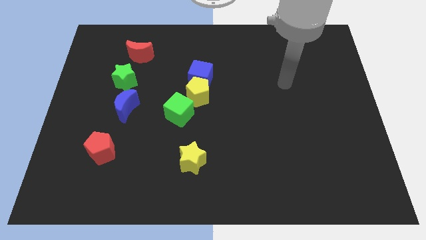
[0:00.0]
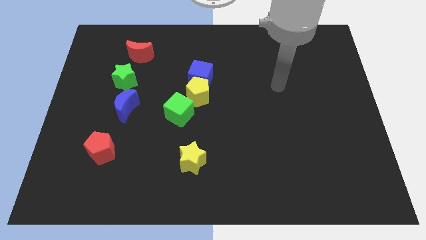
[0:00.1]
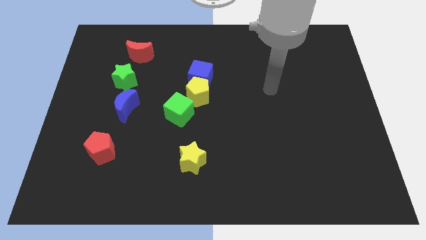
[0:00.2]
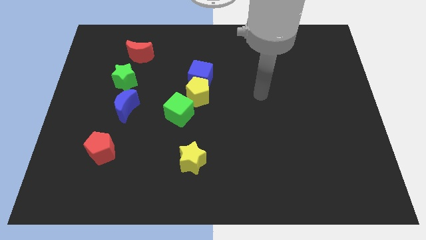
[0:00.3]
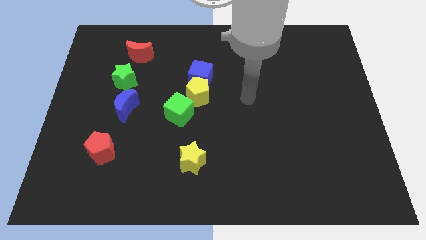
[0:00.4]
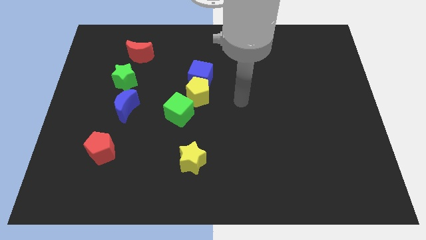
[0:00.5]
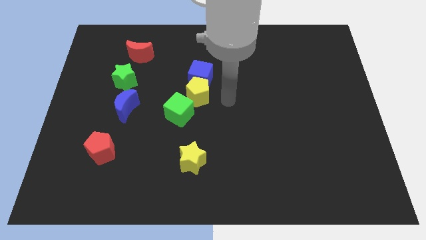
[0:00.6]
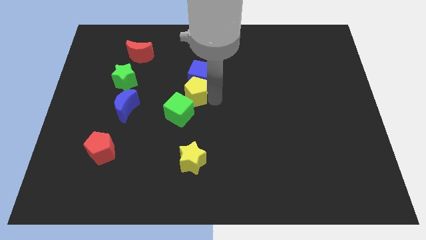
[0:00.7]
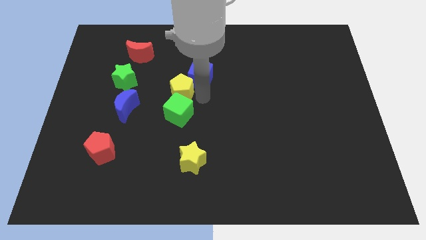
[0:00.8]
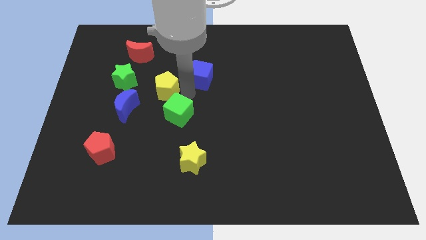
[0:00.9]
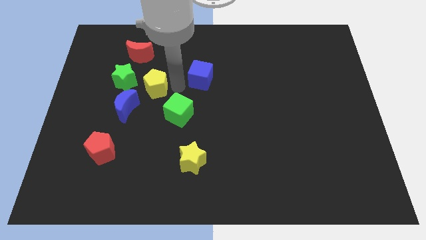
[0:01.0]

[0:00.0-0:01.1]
separate the blue cube from the yellow pentagon

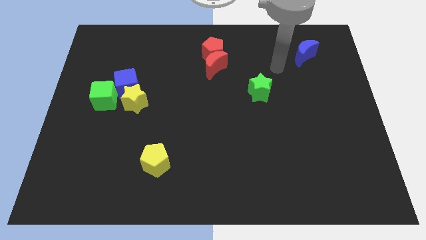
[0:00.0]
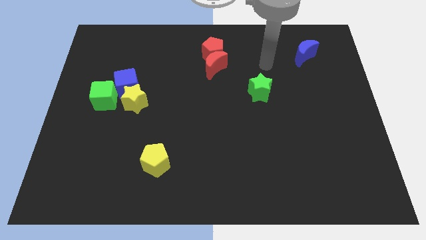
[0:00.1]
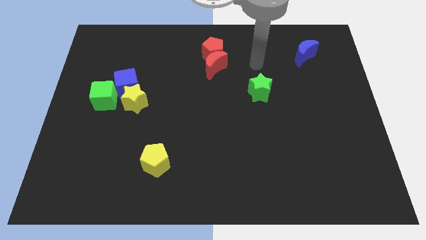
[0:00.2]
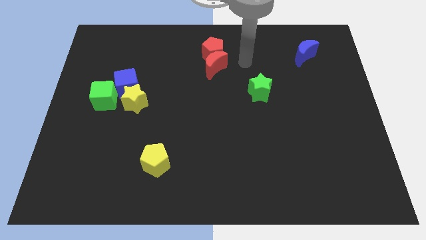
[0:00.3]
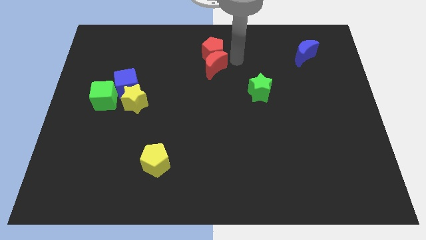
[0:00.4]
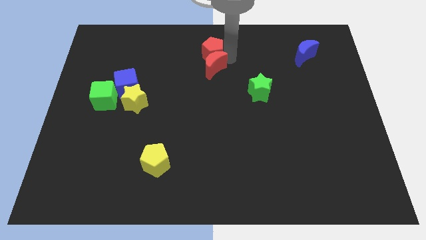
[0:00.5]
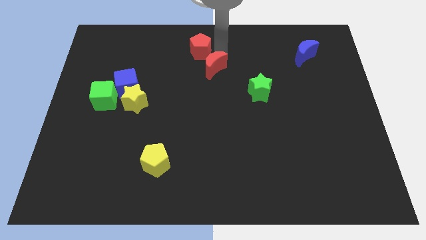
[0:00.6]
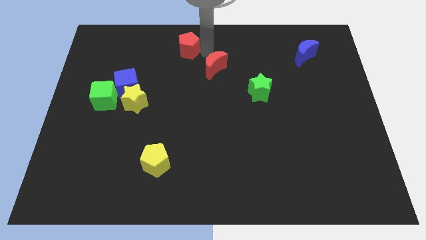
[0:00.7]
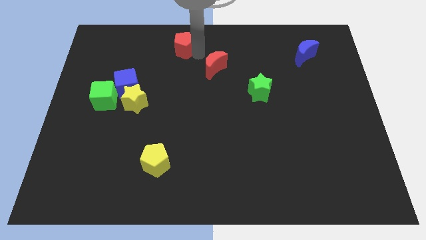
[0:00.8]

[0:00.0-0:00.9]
pull the red moon apart from the red pentagon

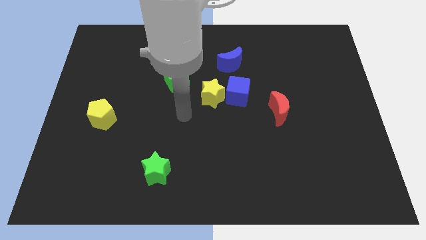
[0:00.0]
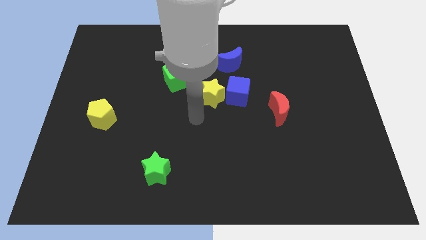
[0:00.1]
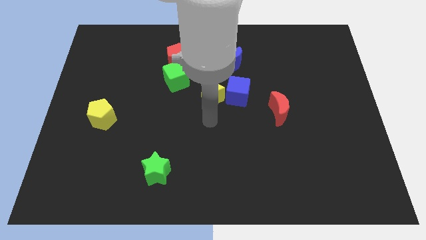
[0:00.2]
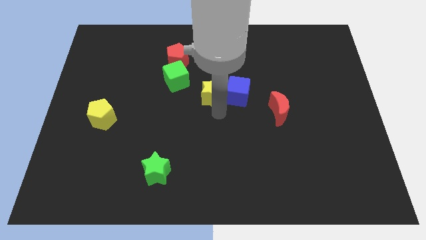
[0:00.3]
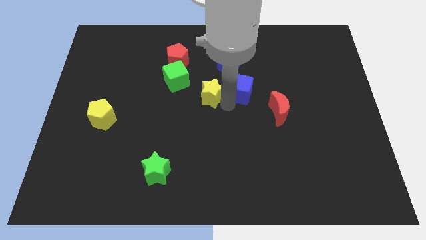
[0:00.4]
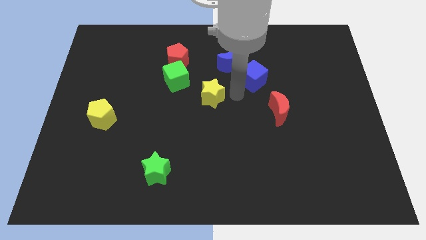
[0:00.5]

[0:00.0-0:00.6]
pull the yellow star apart from the blue cube

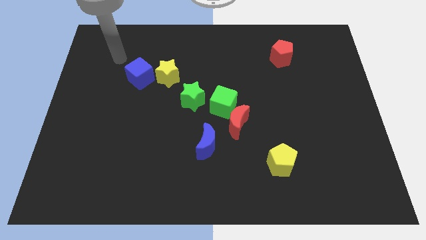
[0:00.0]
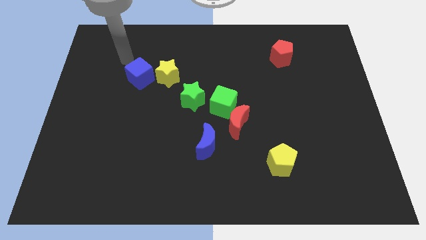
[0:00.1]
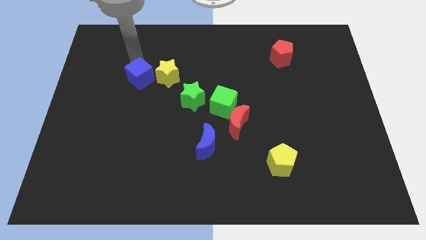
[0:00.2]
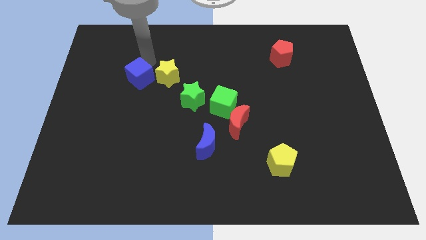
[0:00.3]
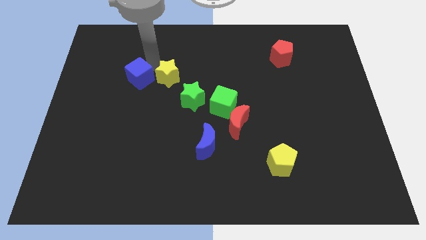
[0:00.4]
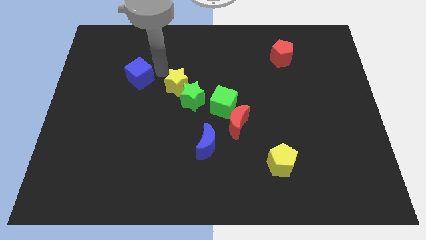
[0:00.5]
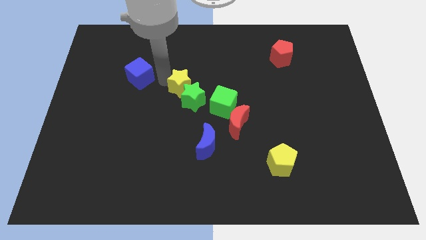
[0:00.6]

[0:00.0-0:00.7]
separate the blue cube from the yellow star

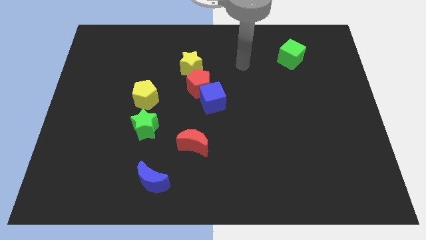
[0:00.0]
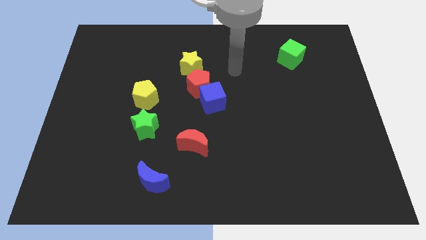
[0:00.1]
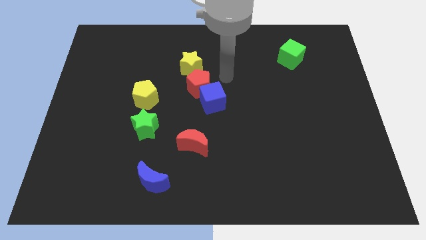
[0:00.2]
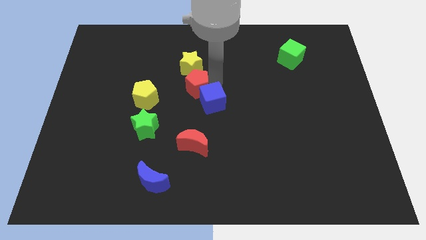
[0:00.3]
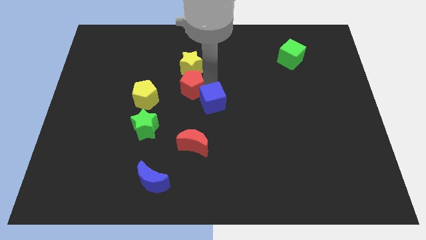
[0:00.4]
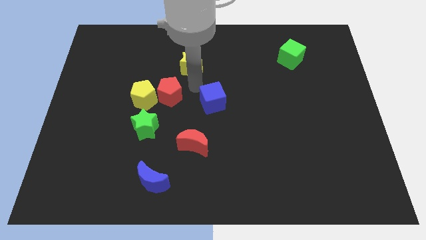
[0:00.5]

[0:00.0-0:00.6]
pull the blue cube apart from the red pentagon

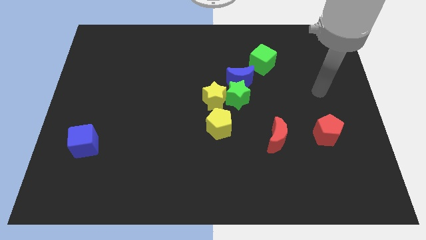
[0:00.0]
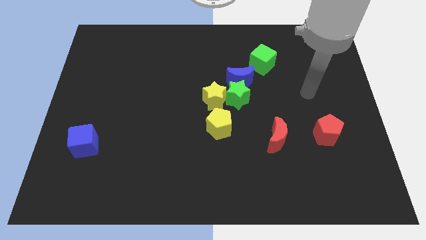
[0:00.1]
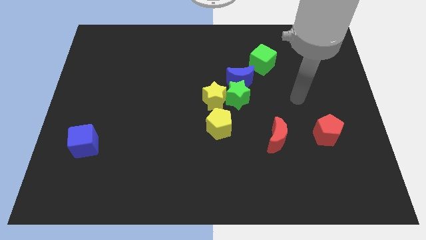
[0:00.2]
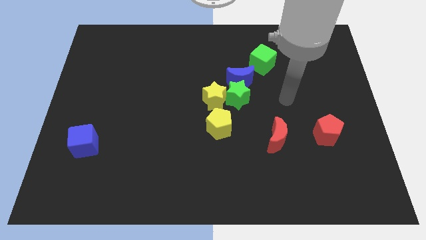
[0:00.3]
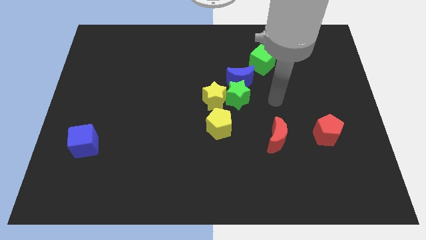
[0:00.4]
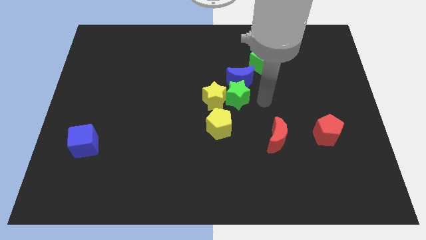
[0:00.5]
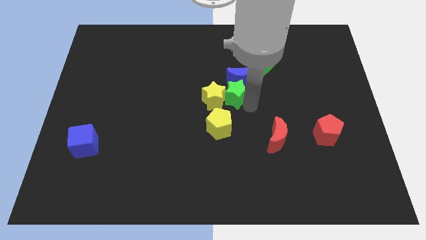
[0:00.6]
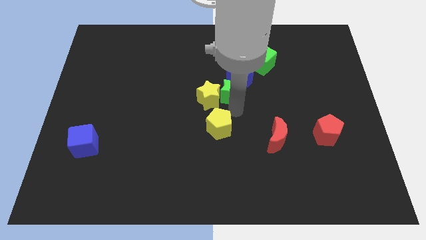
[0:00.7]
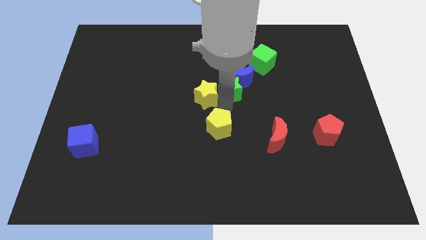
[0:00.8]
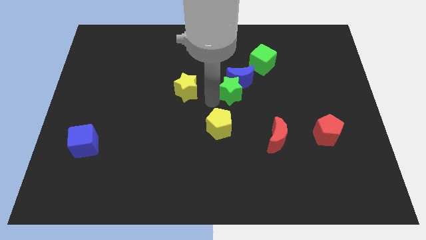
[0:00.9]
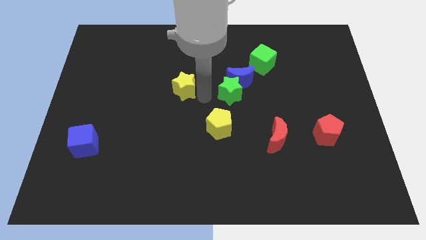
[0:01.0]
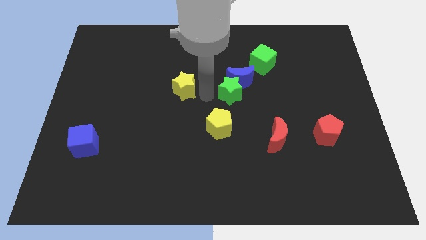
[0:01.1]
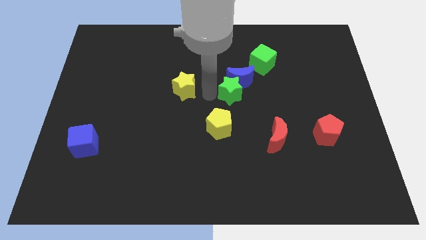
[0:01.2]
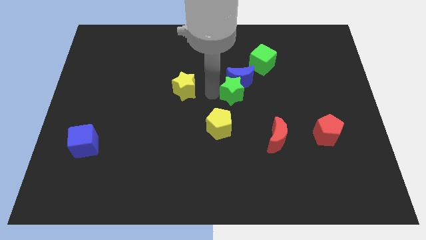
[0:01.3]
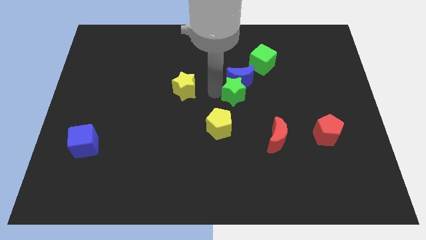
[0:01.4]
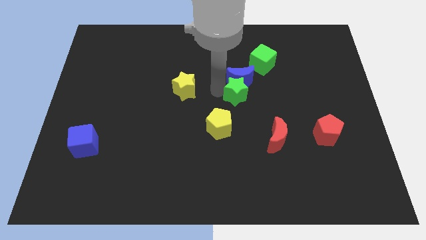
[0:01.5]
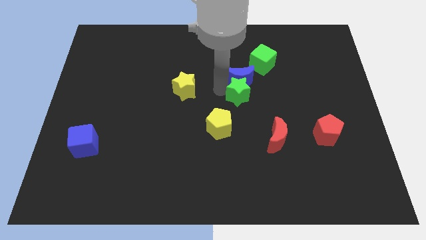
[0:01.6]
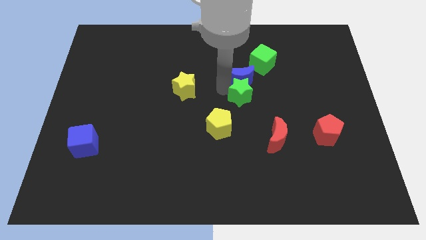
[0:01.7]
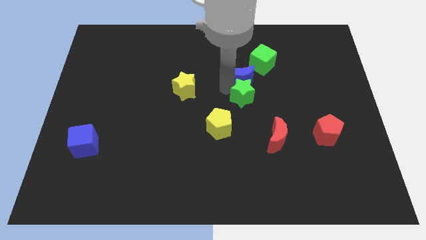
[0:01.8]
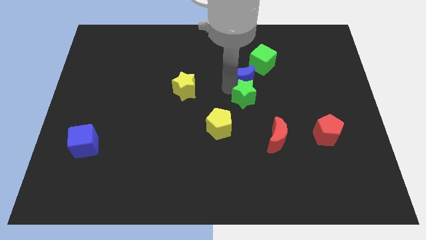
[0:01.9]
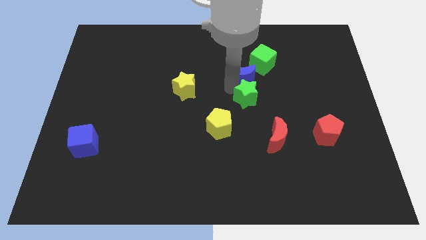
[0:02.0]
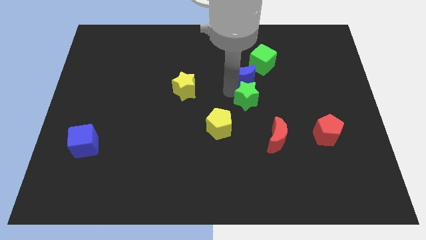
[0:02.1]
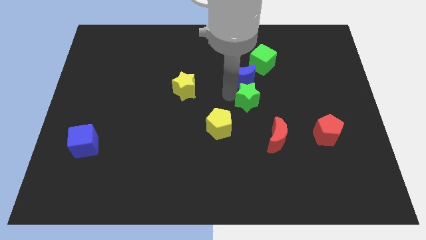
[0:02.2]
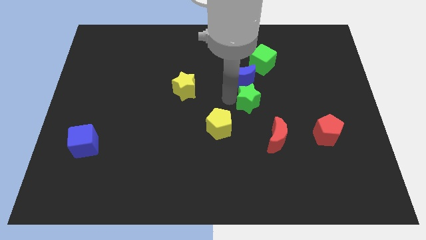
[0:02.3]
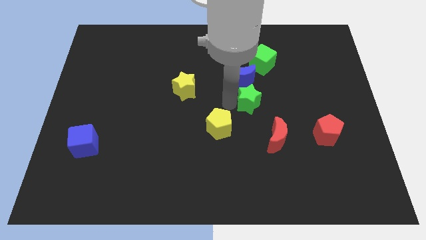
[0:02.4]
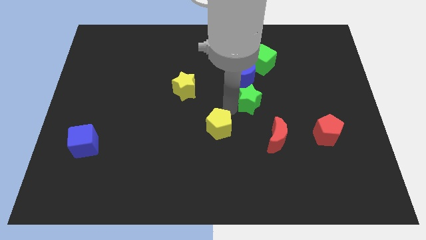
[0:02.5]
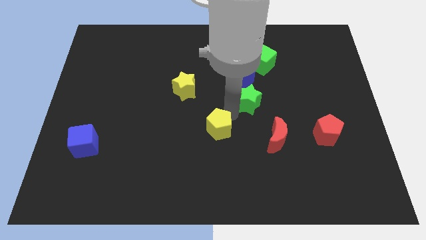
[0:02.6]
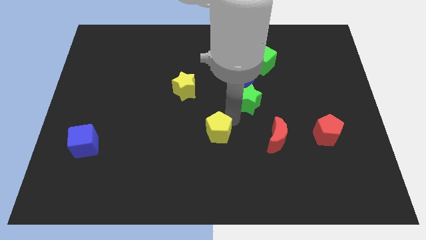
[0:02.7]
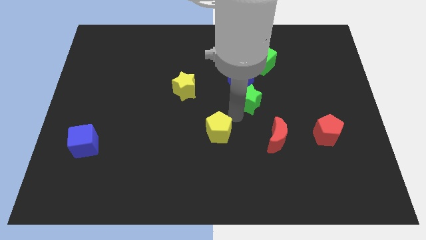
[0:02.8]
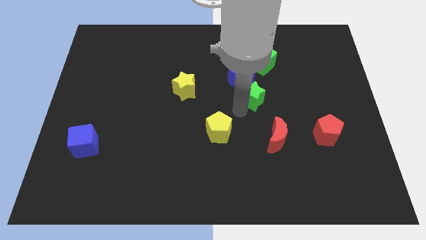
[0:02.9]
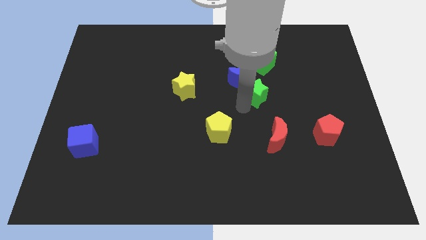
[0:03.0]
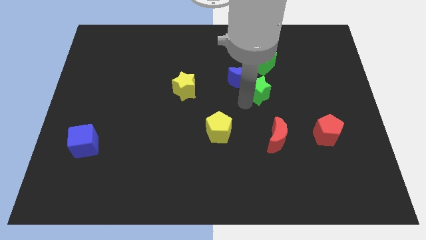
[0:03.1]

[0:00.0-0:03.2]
pull the green star apart from the clump

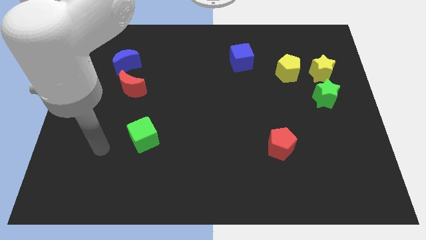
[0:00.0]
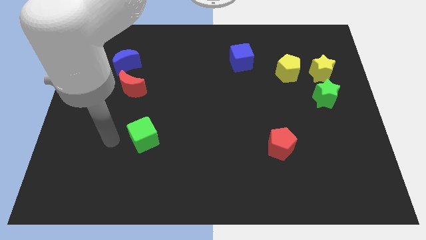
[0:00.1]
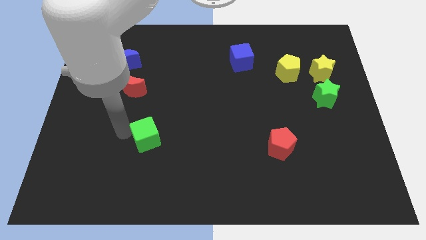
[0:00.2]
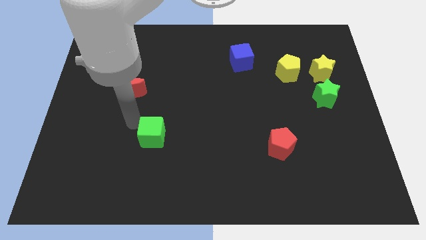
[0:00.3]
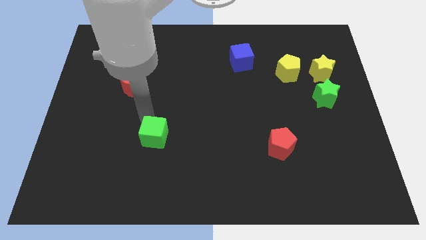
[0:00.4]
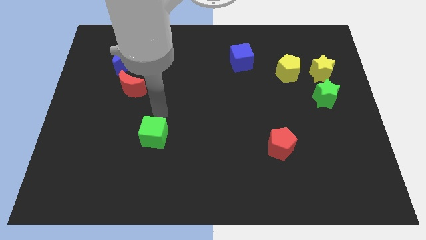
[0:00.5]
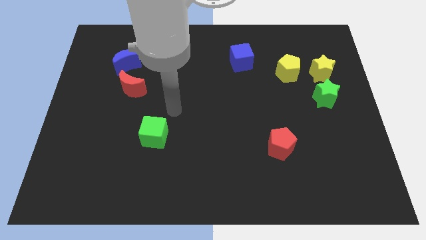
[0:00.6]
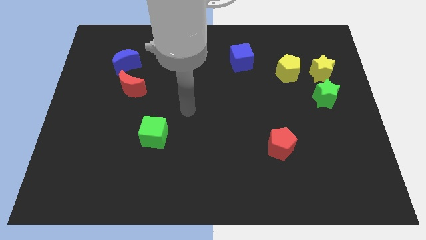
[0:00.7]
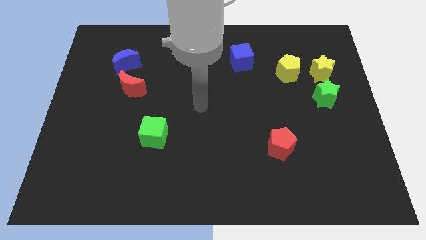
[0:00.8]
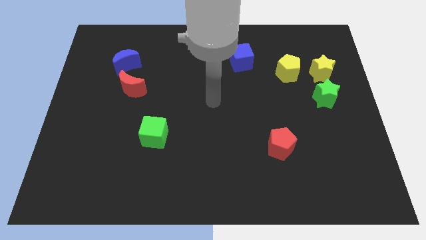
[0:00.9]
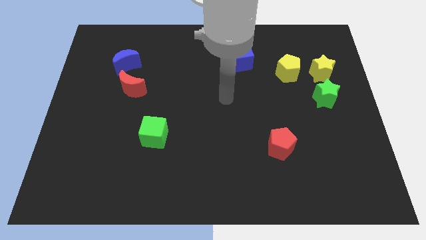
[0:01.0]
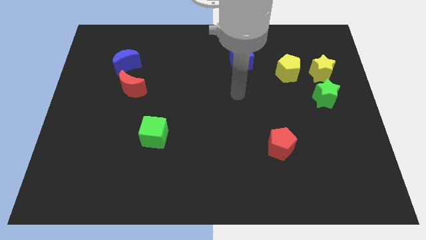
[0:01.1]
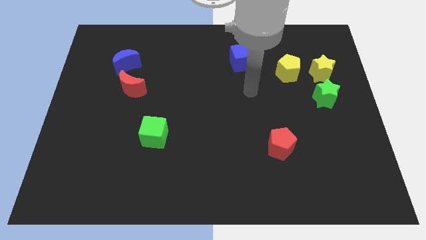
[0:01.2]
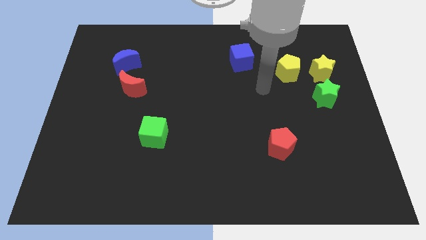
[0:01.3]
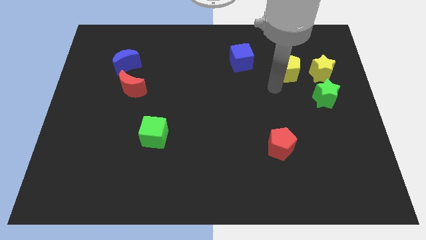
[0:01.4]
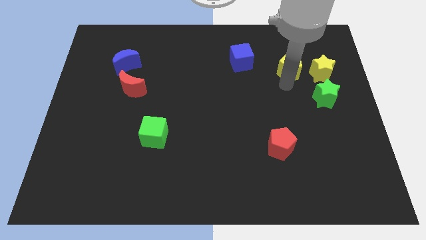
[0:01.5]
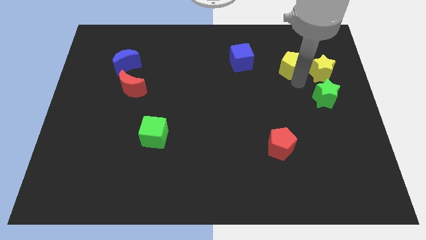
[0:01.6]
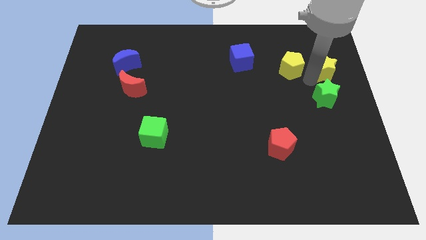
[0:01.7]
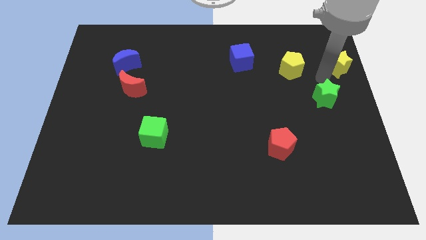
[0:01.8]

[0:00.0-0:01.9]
separate the green star from the yellow star

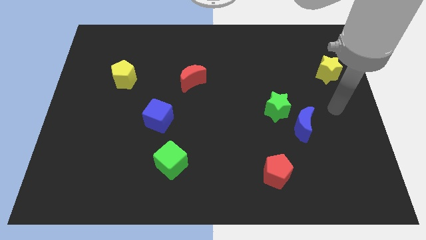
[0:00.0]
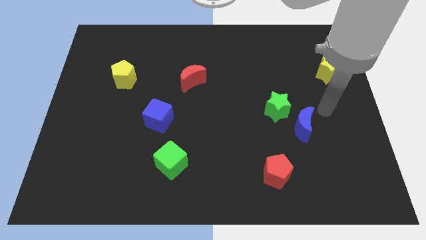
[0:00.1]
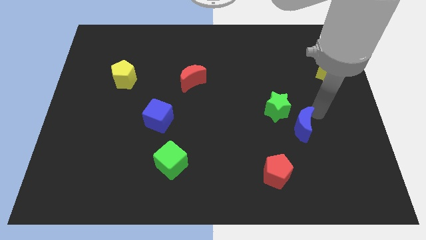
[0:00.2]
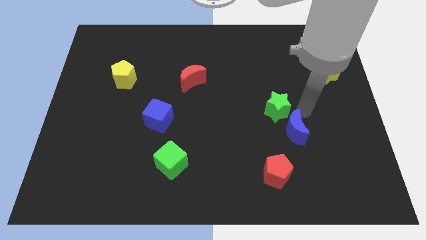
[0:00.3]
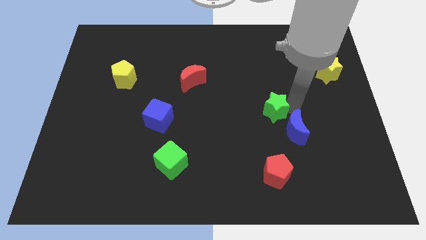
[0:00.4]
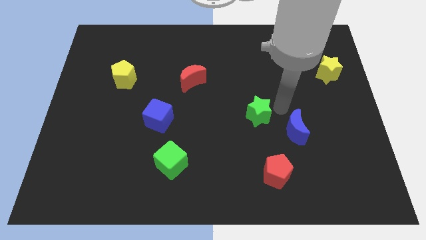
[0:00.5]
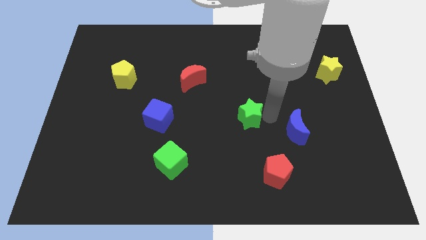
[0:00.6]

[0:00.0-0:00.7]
pull the blue moon apart from the green star
